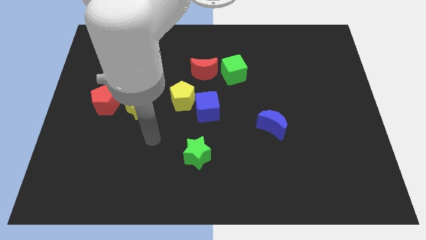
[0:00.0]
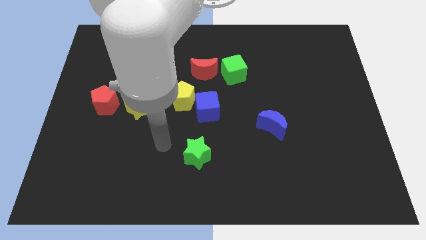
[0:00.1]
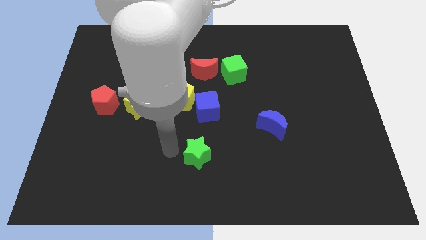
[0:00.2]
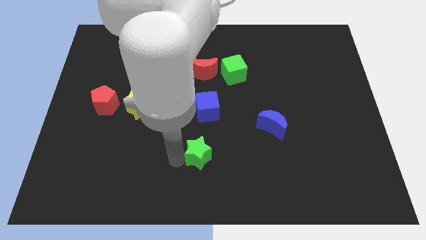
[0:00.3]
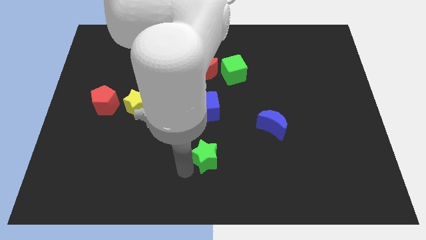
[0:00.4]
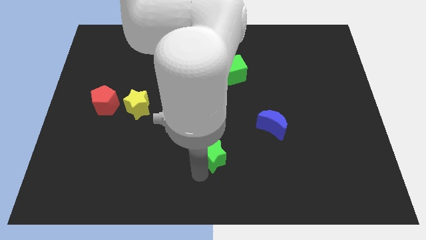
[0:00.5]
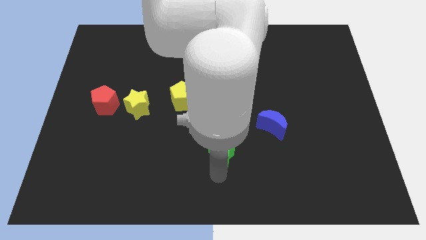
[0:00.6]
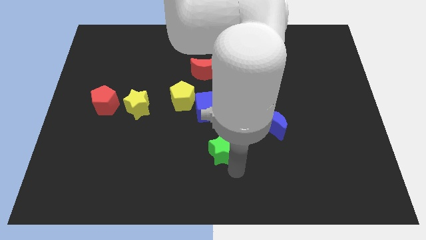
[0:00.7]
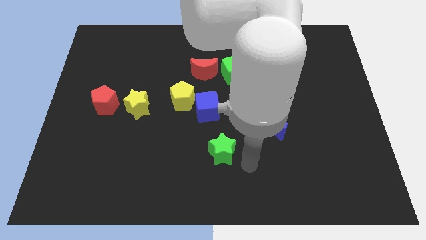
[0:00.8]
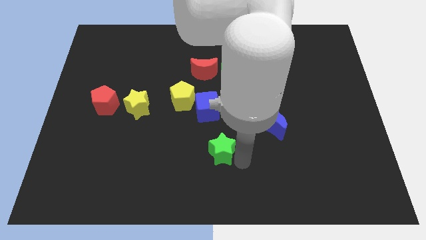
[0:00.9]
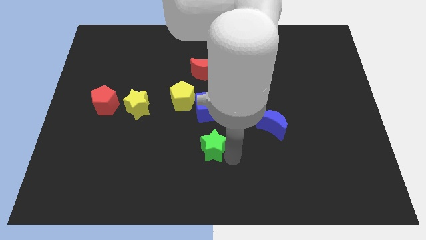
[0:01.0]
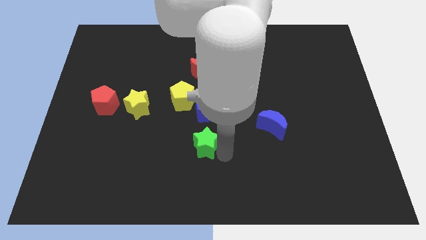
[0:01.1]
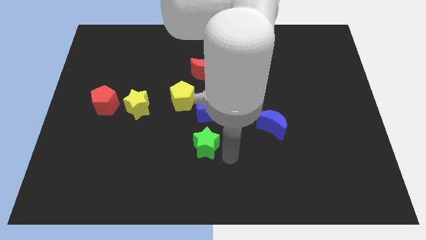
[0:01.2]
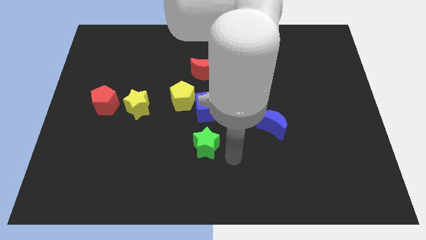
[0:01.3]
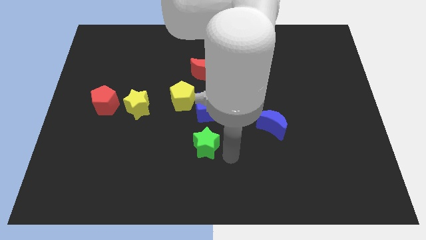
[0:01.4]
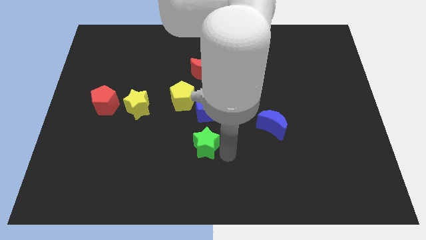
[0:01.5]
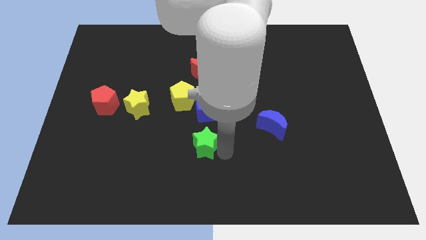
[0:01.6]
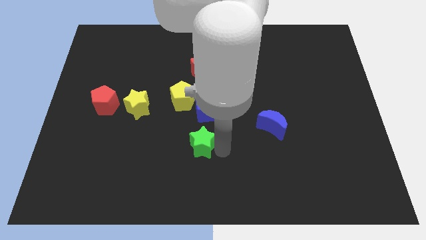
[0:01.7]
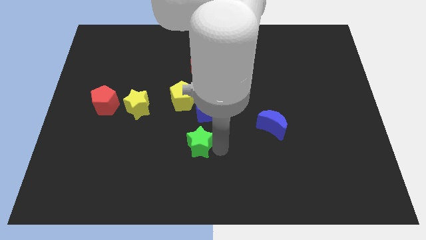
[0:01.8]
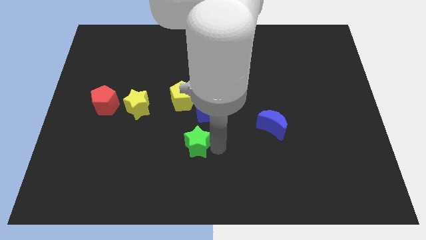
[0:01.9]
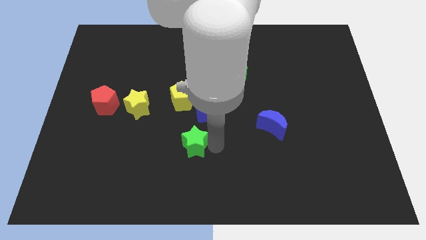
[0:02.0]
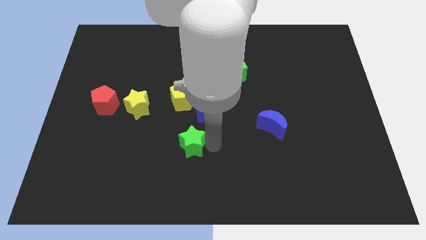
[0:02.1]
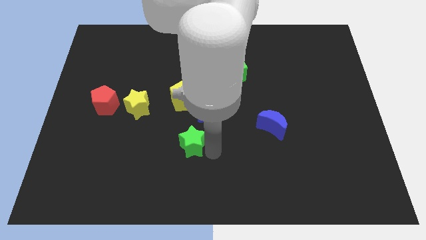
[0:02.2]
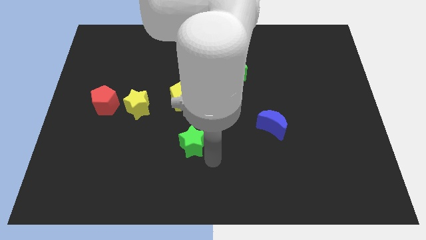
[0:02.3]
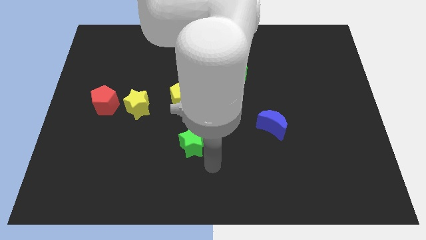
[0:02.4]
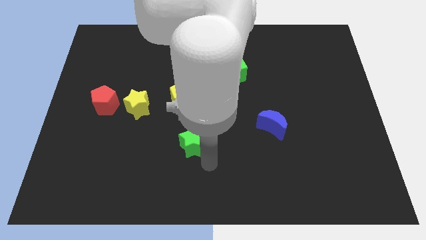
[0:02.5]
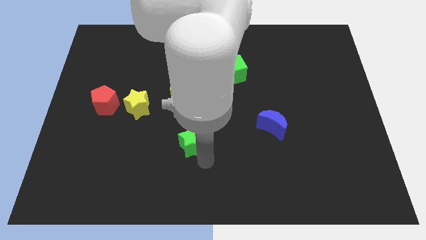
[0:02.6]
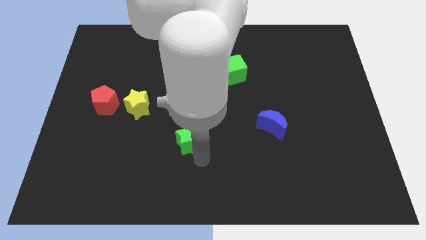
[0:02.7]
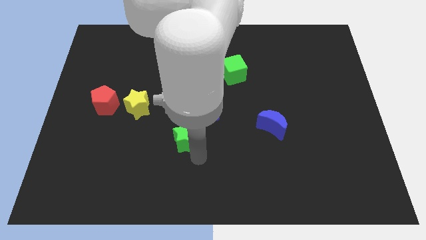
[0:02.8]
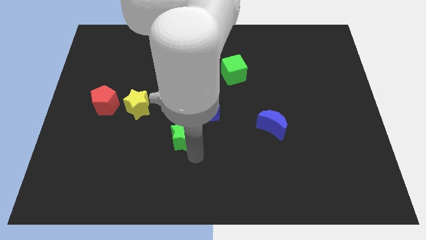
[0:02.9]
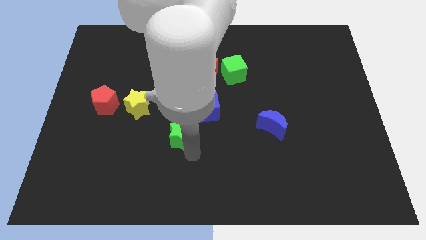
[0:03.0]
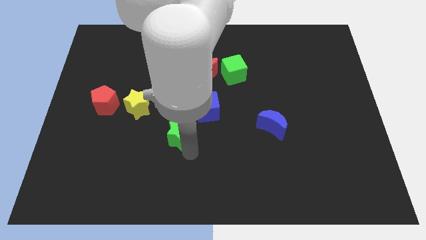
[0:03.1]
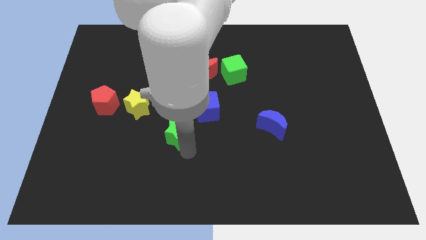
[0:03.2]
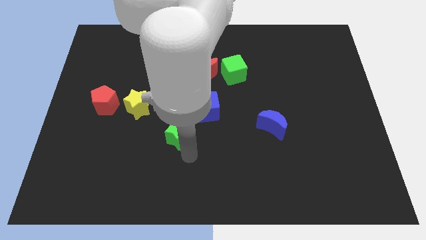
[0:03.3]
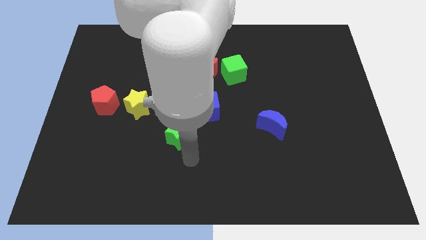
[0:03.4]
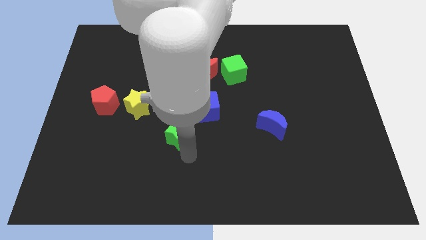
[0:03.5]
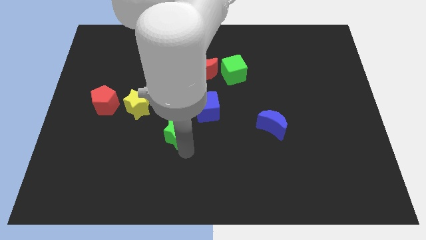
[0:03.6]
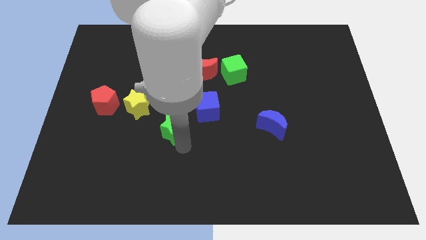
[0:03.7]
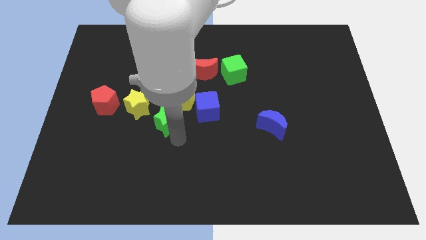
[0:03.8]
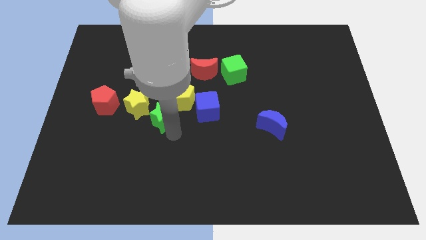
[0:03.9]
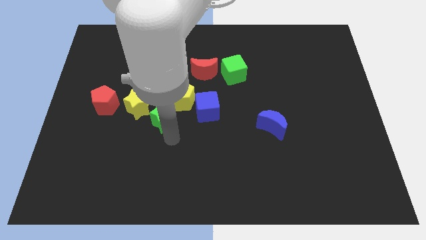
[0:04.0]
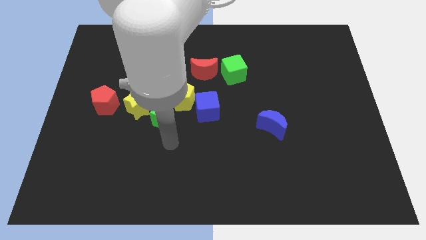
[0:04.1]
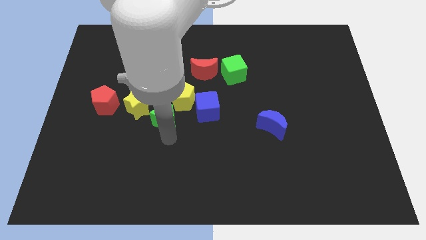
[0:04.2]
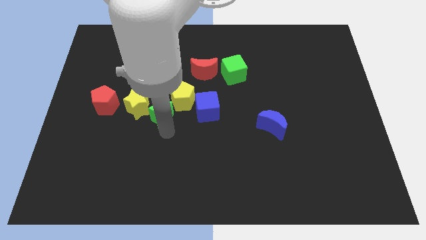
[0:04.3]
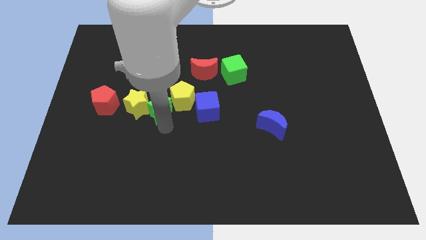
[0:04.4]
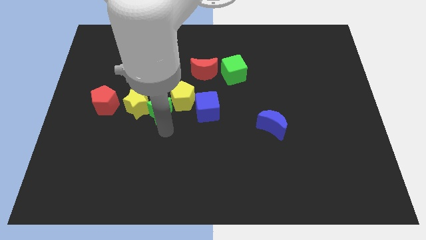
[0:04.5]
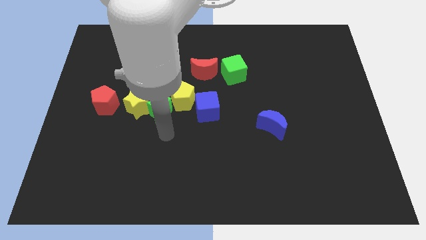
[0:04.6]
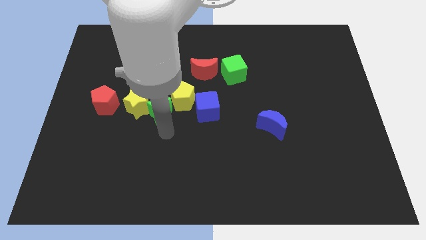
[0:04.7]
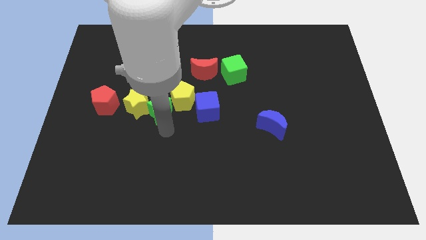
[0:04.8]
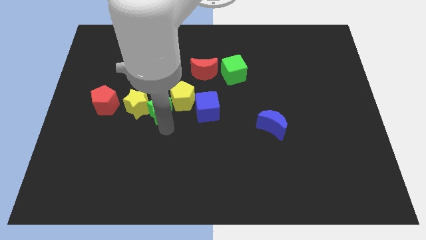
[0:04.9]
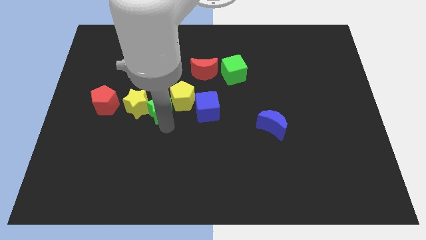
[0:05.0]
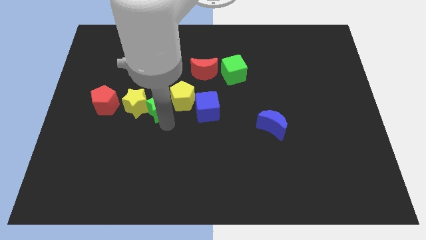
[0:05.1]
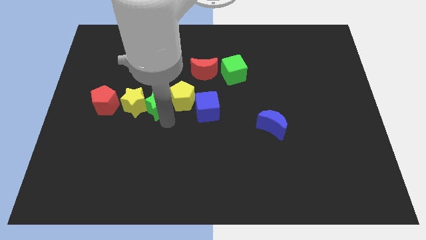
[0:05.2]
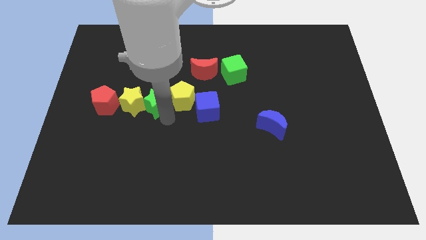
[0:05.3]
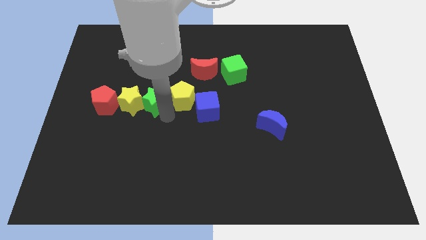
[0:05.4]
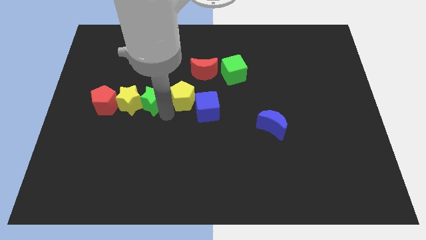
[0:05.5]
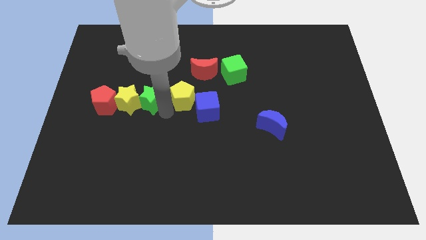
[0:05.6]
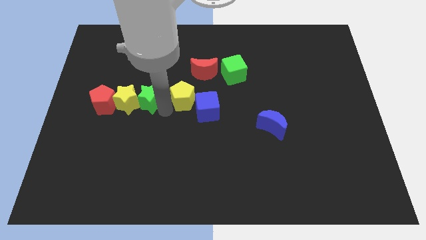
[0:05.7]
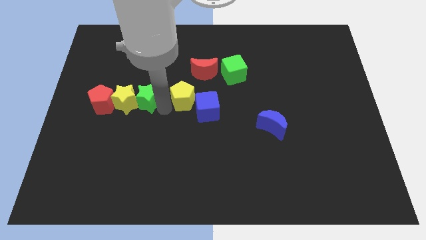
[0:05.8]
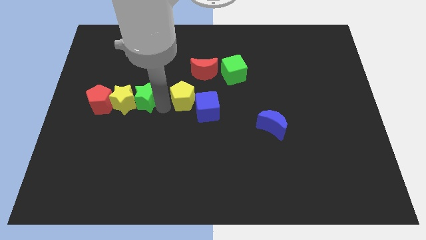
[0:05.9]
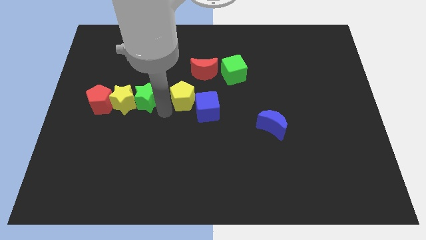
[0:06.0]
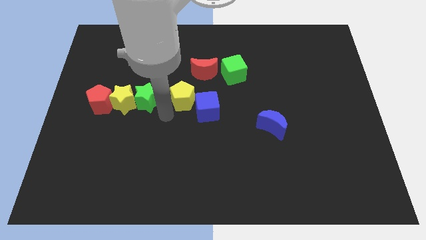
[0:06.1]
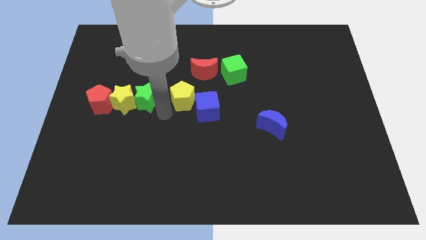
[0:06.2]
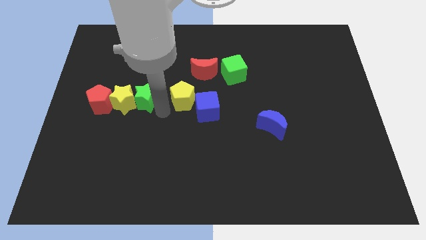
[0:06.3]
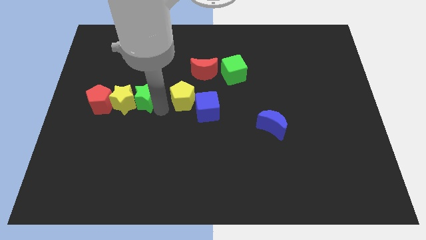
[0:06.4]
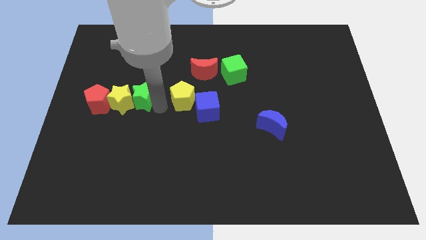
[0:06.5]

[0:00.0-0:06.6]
slide the green star up and then to the left

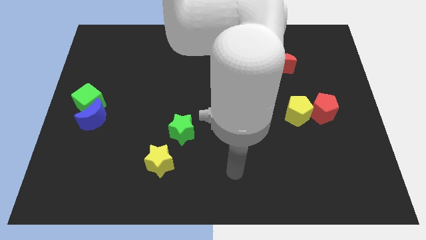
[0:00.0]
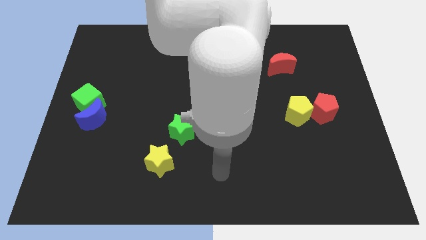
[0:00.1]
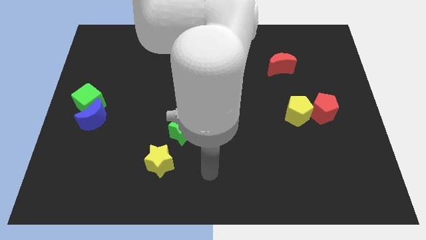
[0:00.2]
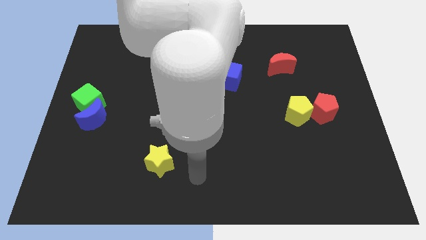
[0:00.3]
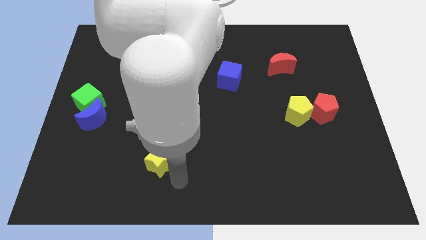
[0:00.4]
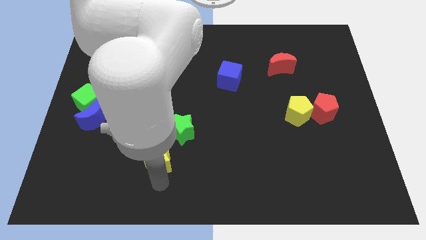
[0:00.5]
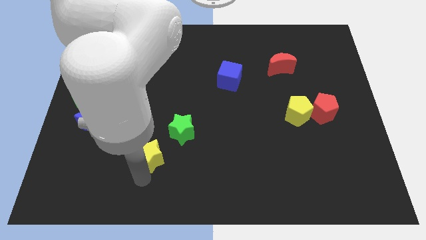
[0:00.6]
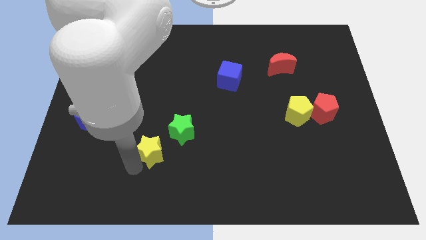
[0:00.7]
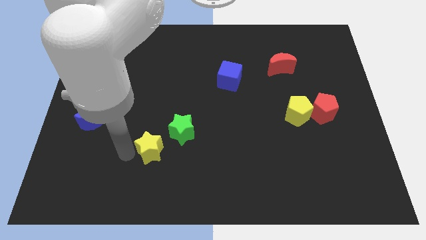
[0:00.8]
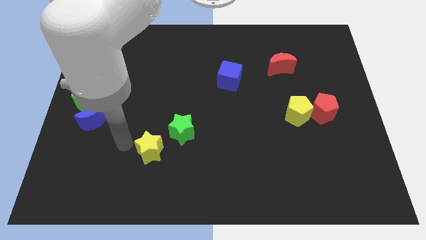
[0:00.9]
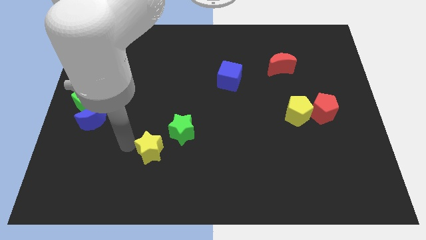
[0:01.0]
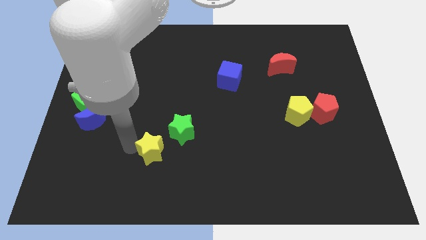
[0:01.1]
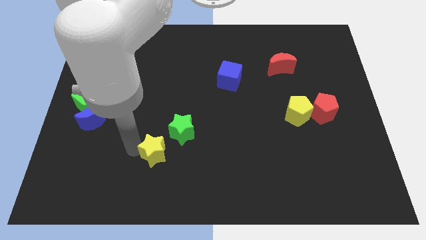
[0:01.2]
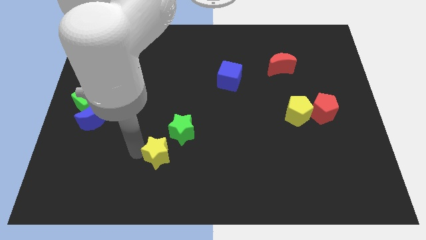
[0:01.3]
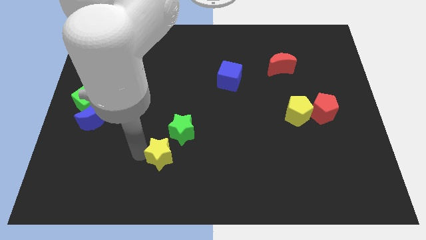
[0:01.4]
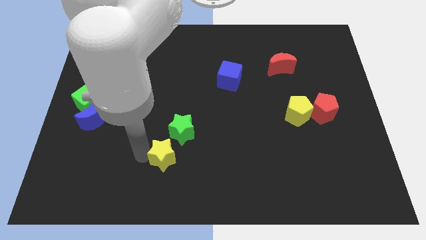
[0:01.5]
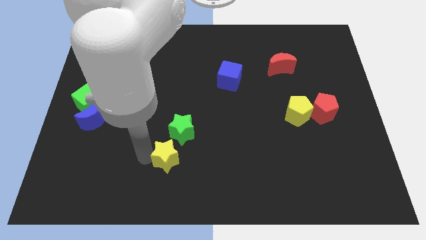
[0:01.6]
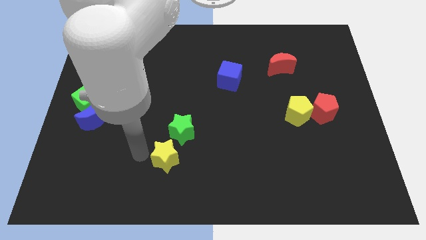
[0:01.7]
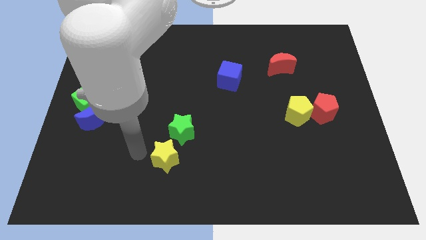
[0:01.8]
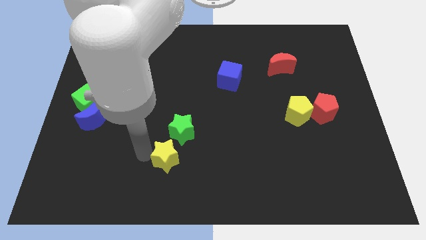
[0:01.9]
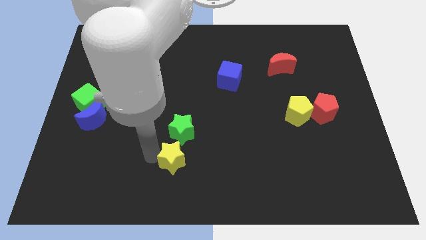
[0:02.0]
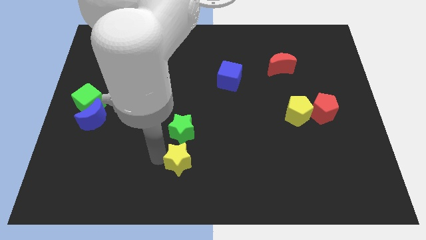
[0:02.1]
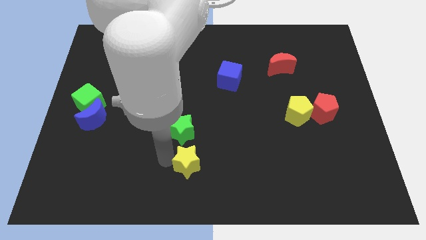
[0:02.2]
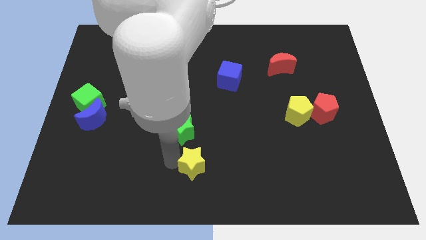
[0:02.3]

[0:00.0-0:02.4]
slightly slide the yellow star right
